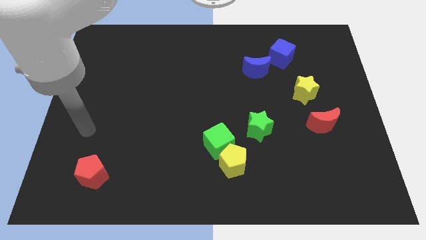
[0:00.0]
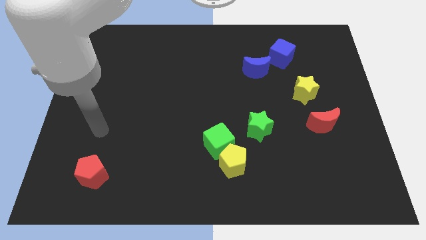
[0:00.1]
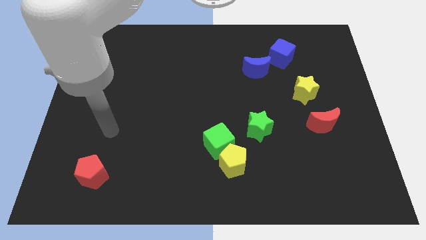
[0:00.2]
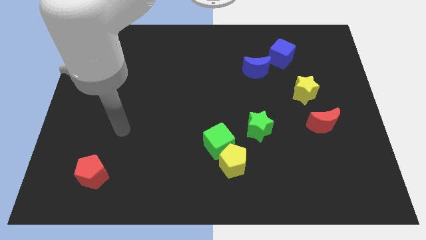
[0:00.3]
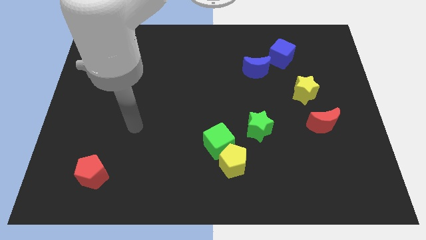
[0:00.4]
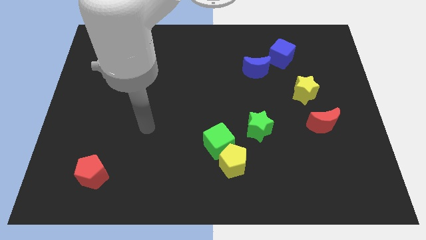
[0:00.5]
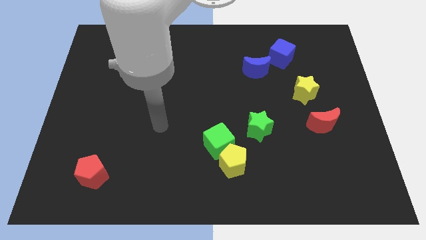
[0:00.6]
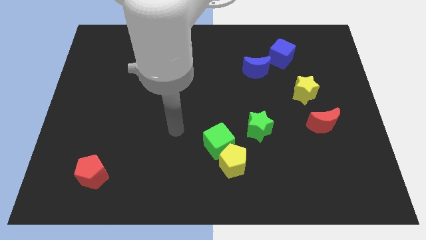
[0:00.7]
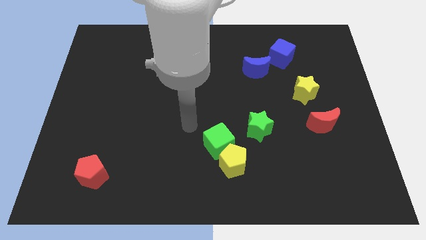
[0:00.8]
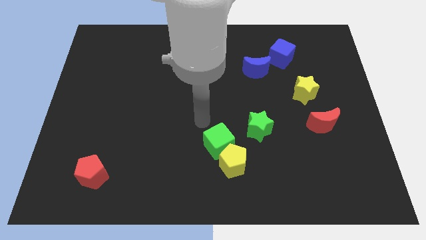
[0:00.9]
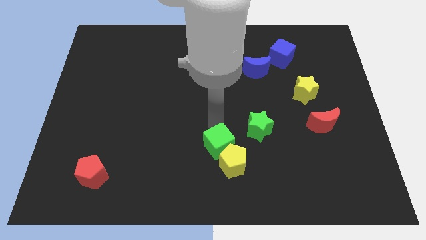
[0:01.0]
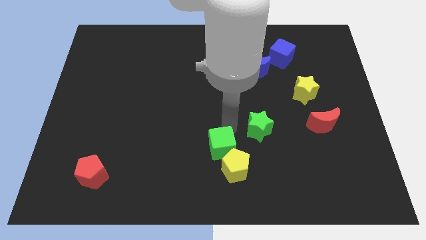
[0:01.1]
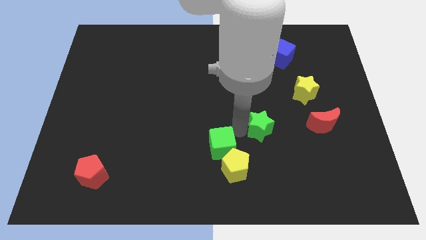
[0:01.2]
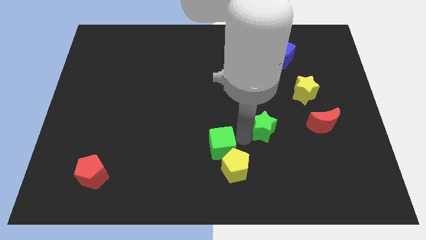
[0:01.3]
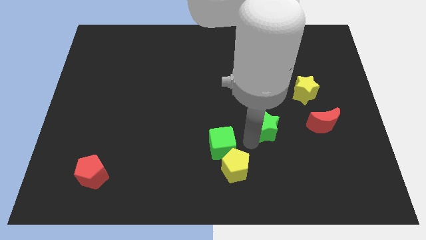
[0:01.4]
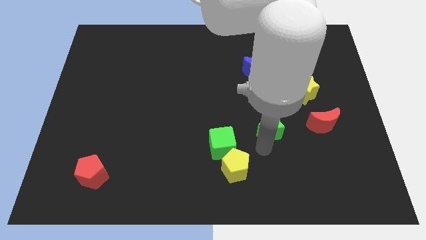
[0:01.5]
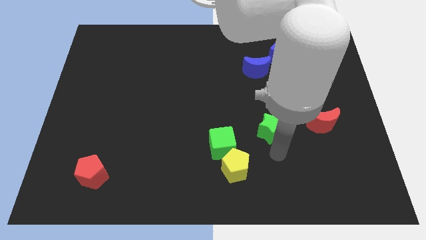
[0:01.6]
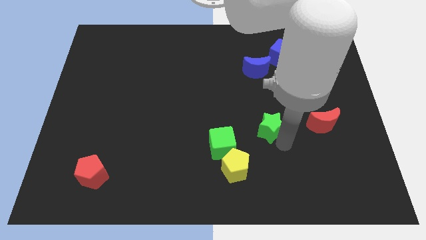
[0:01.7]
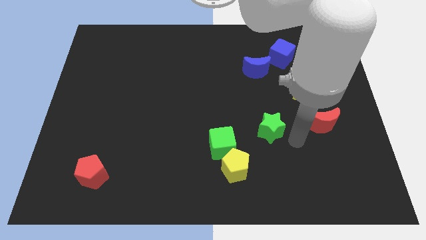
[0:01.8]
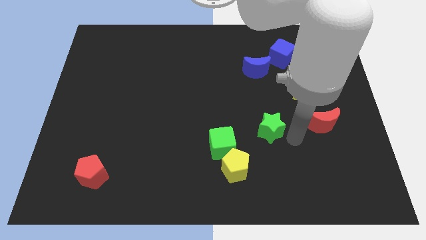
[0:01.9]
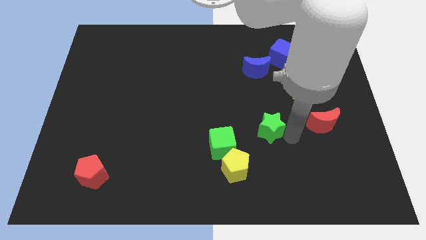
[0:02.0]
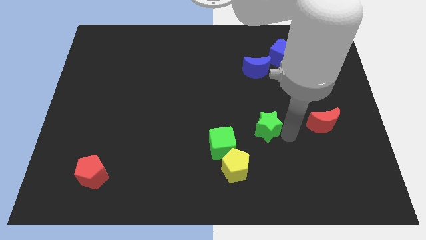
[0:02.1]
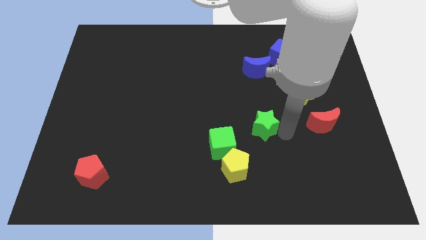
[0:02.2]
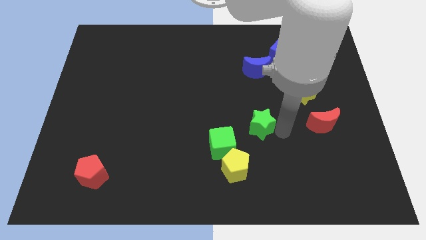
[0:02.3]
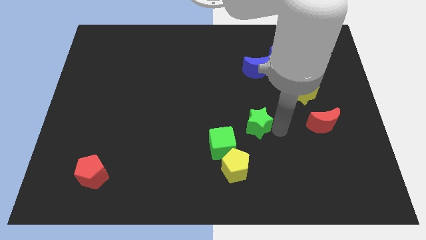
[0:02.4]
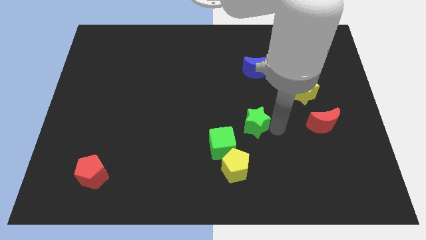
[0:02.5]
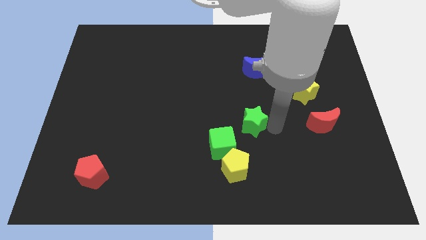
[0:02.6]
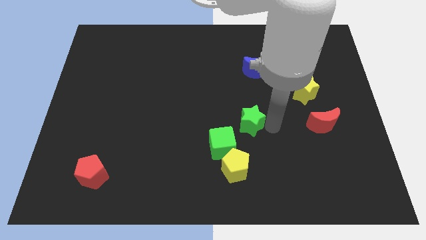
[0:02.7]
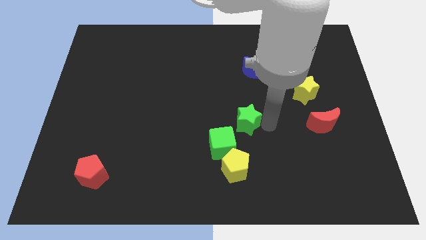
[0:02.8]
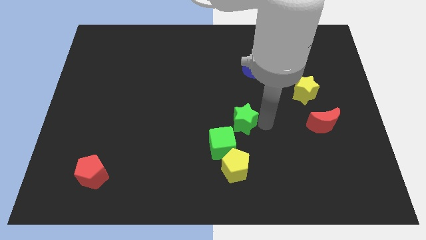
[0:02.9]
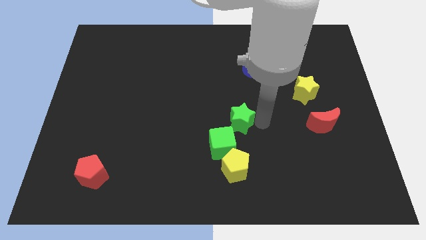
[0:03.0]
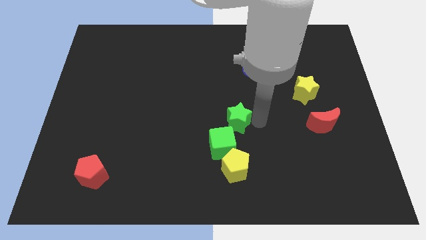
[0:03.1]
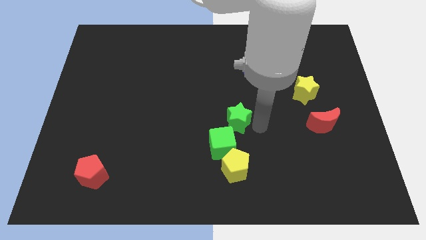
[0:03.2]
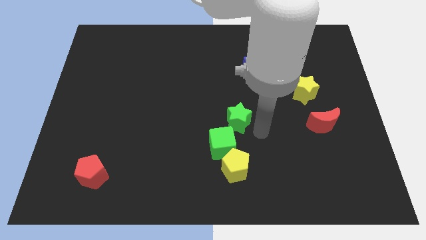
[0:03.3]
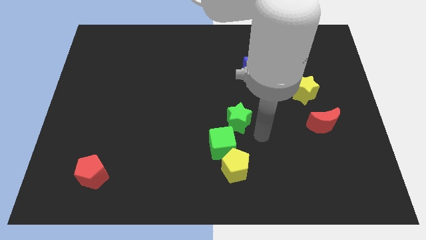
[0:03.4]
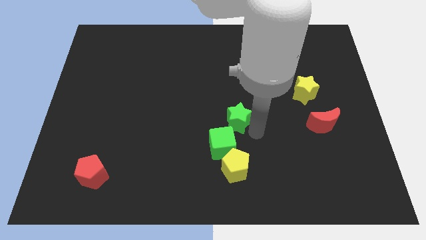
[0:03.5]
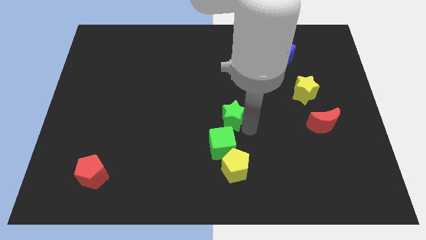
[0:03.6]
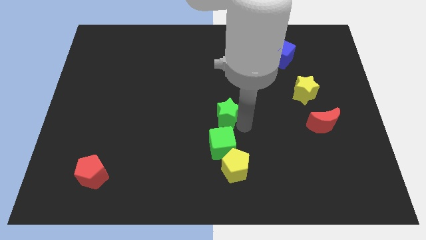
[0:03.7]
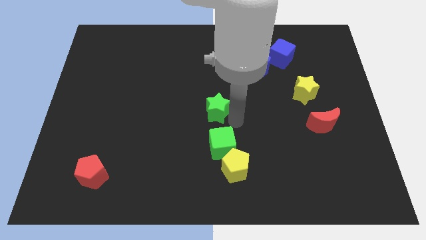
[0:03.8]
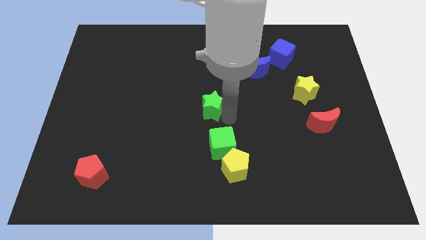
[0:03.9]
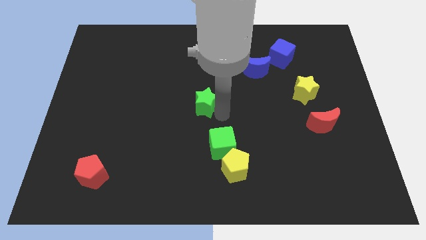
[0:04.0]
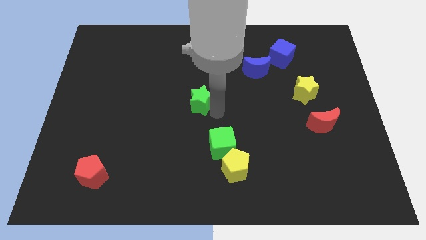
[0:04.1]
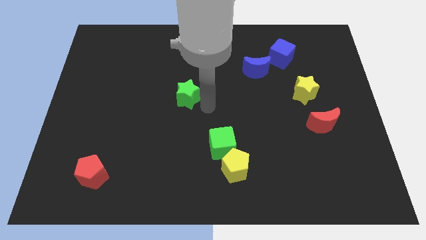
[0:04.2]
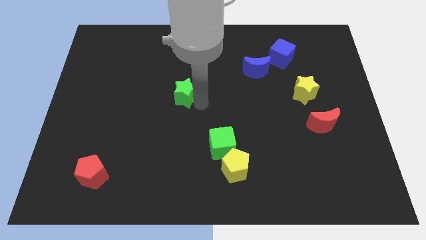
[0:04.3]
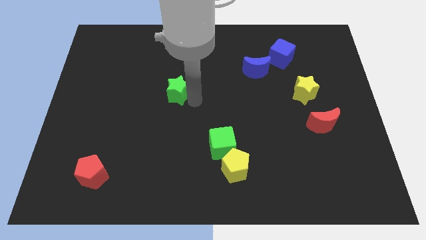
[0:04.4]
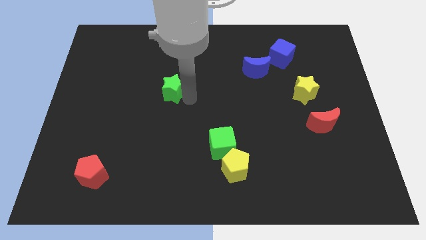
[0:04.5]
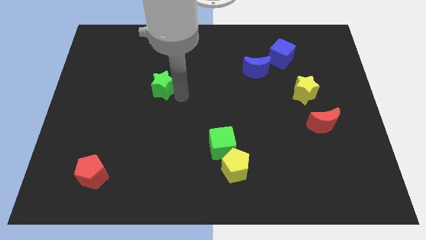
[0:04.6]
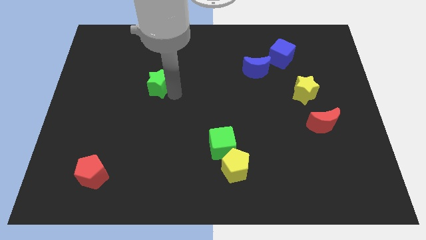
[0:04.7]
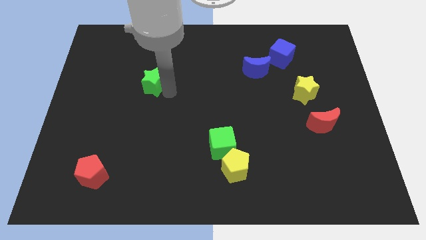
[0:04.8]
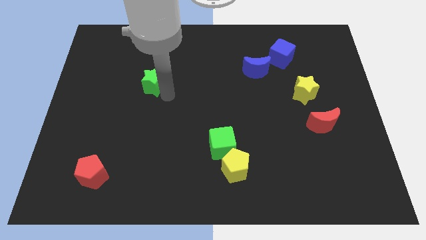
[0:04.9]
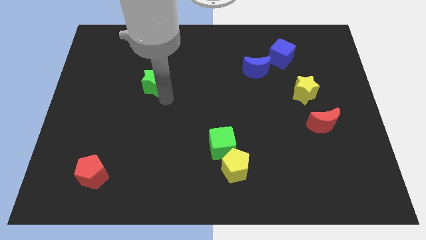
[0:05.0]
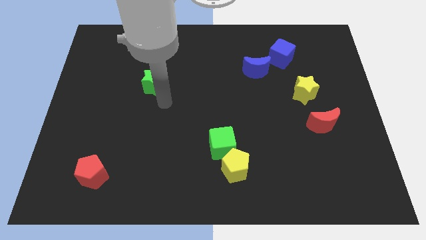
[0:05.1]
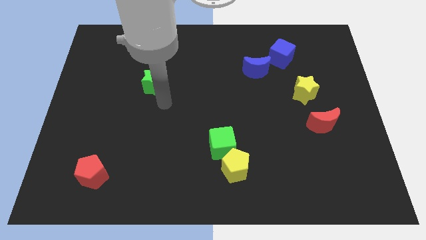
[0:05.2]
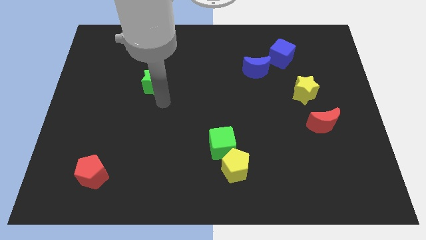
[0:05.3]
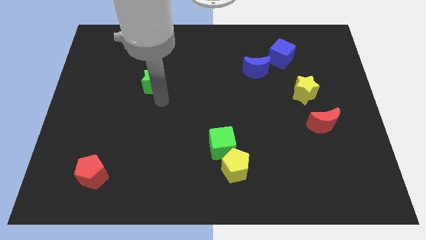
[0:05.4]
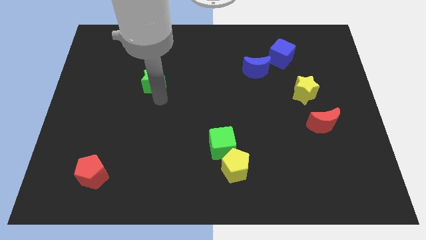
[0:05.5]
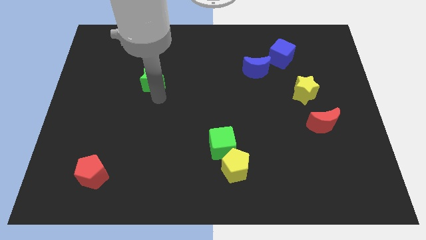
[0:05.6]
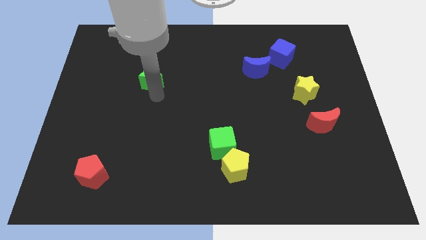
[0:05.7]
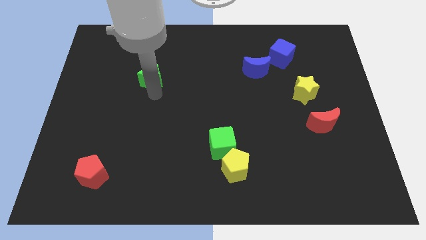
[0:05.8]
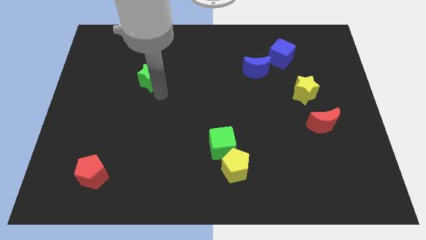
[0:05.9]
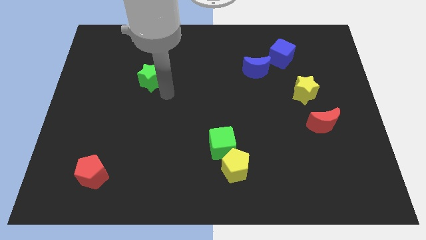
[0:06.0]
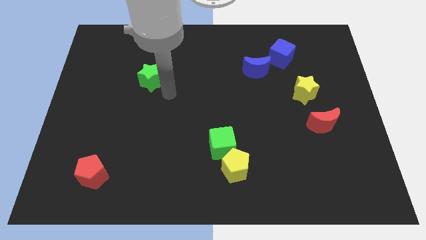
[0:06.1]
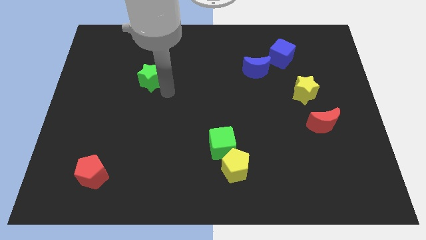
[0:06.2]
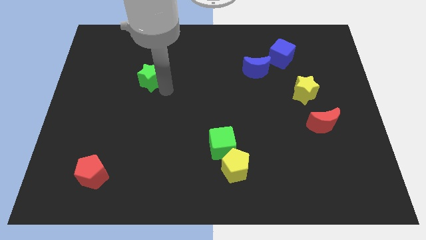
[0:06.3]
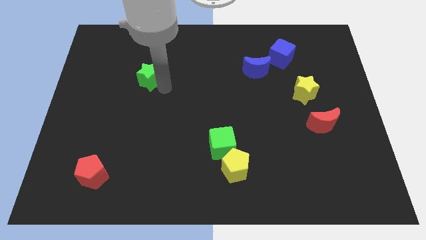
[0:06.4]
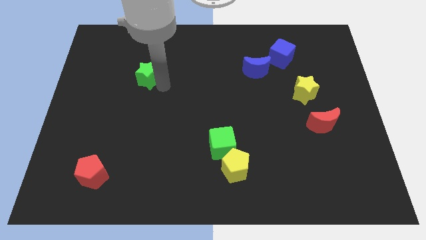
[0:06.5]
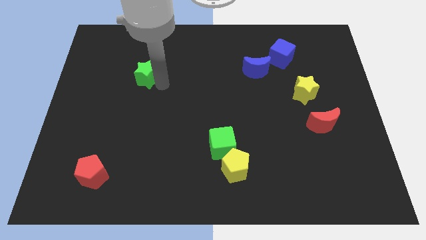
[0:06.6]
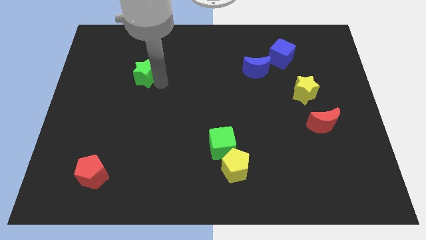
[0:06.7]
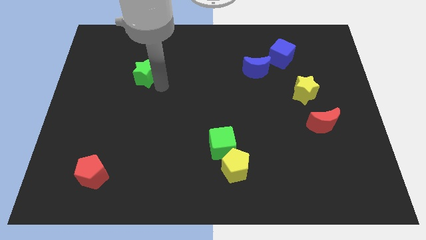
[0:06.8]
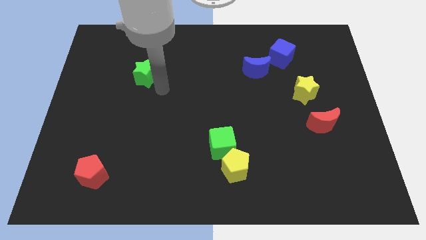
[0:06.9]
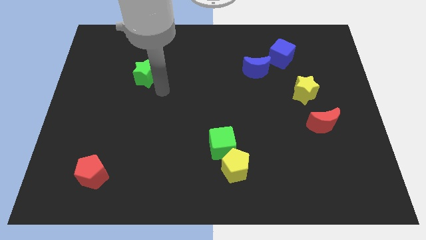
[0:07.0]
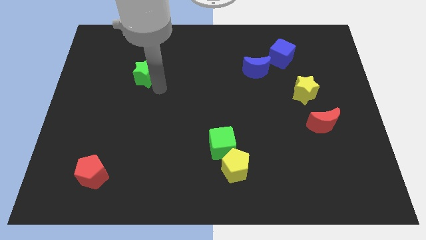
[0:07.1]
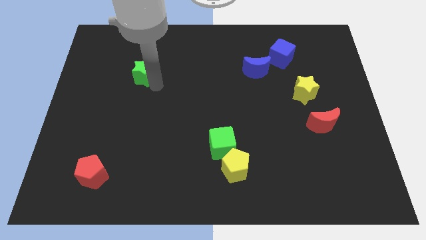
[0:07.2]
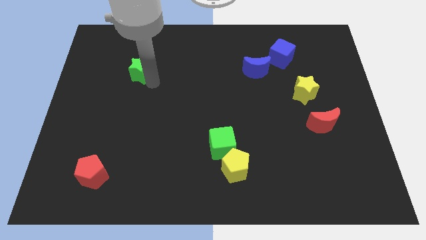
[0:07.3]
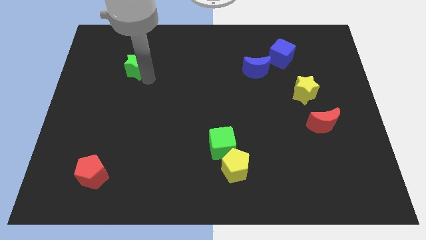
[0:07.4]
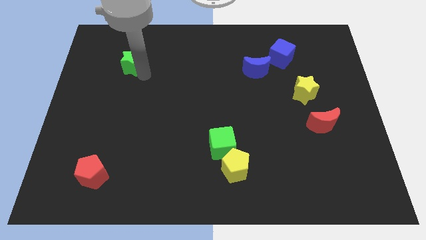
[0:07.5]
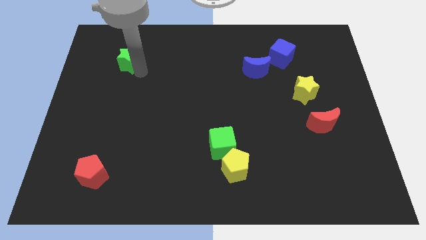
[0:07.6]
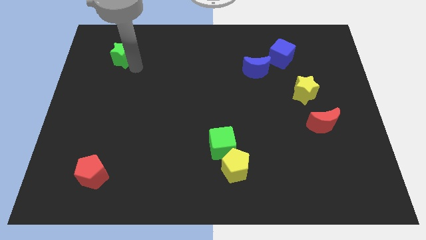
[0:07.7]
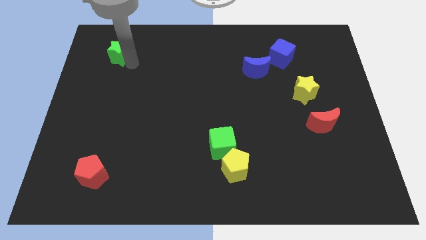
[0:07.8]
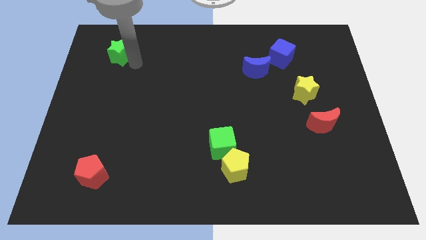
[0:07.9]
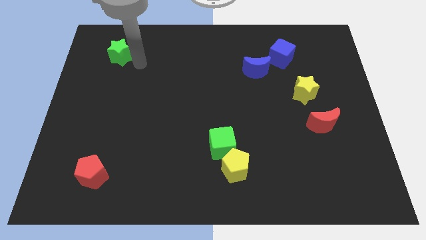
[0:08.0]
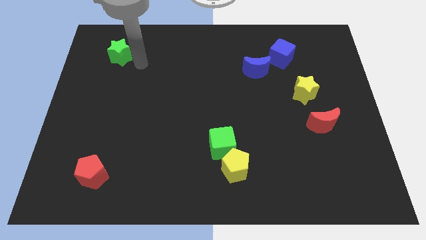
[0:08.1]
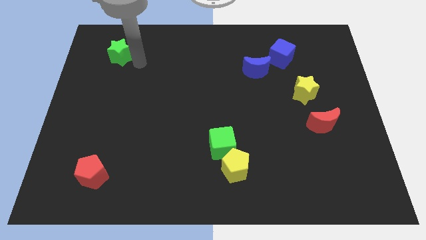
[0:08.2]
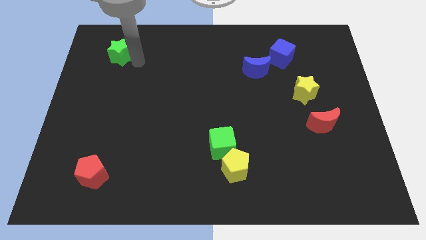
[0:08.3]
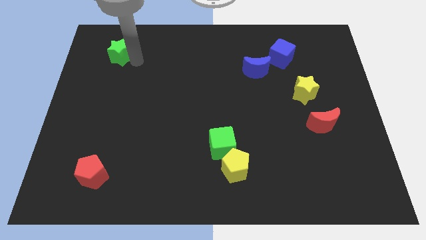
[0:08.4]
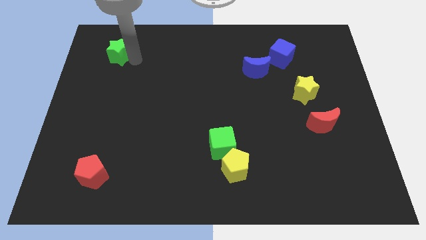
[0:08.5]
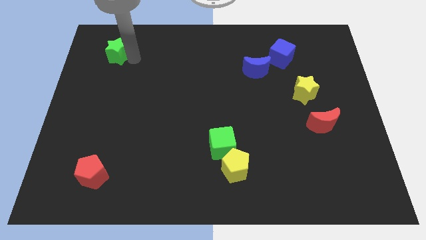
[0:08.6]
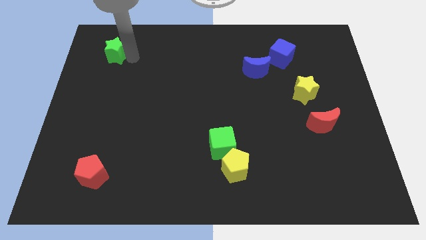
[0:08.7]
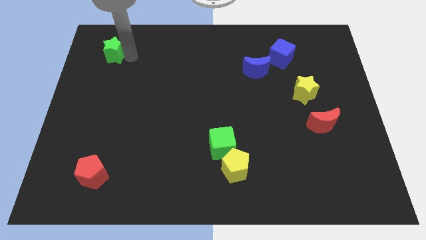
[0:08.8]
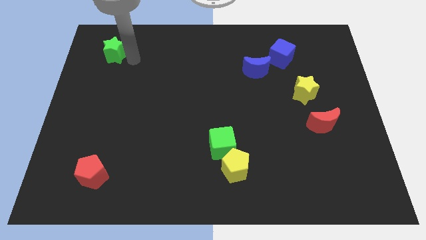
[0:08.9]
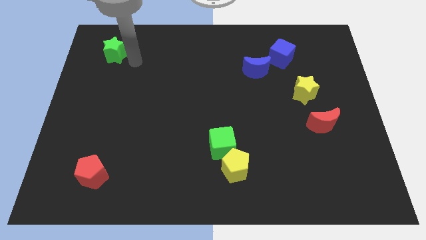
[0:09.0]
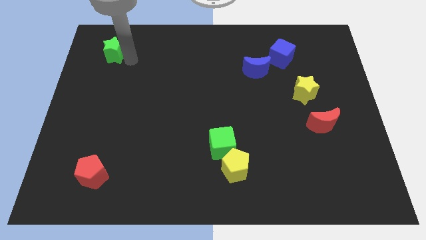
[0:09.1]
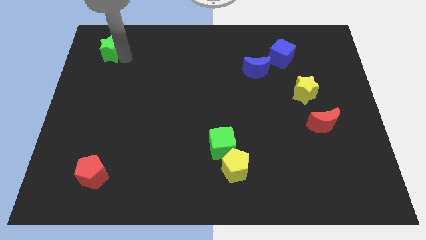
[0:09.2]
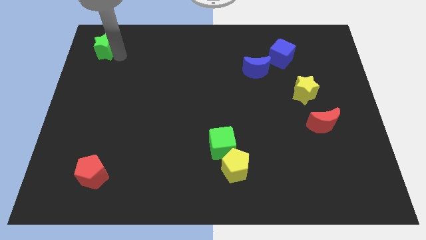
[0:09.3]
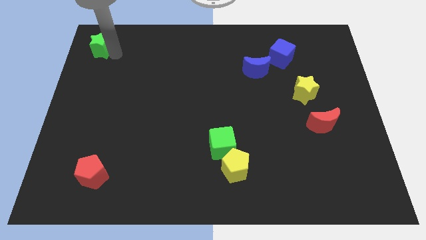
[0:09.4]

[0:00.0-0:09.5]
put the green star to the top left corner
